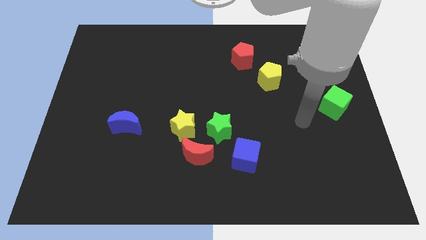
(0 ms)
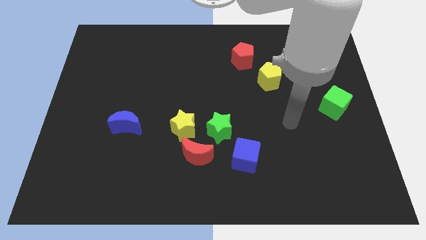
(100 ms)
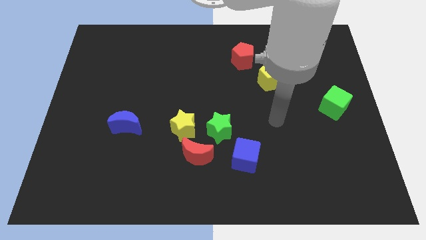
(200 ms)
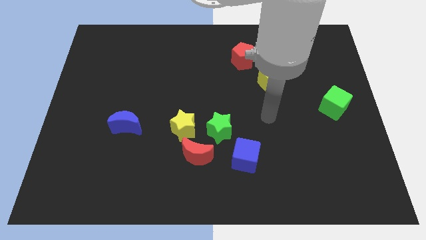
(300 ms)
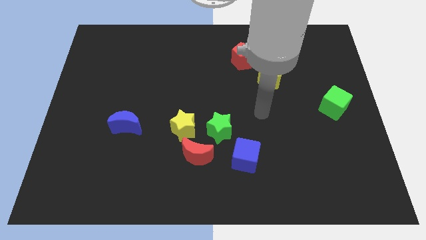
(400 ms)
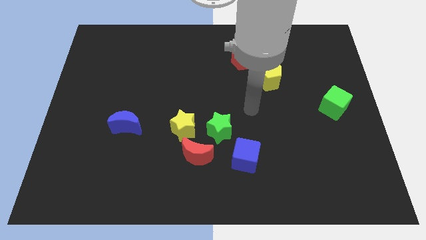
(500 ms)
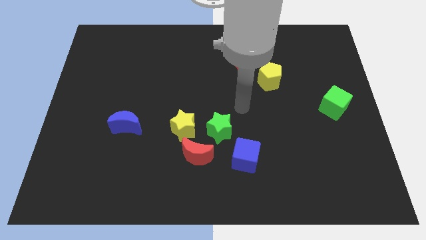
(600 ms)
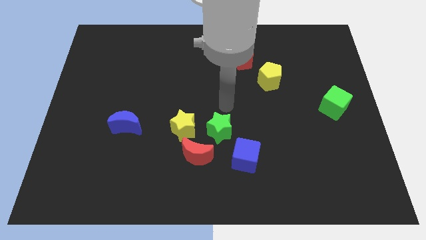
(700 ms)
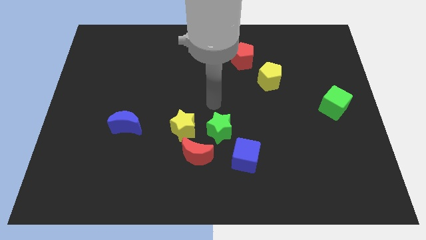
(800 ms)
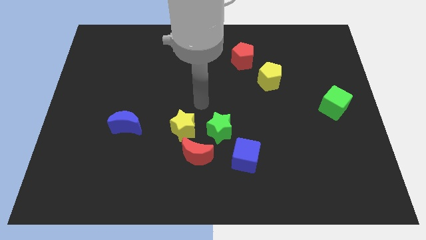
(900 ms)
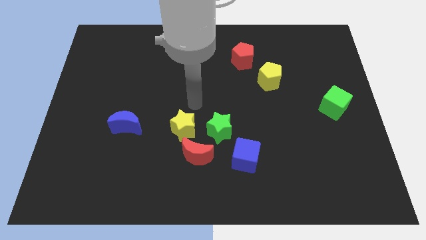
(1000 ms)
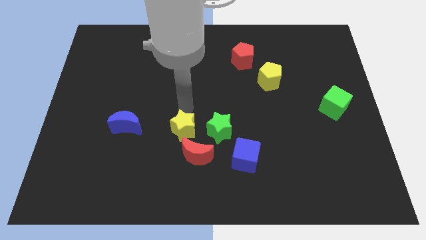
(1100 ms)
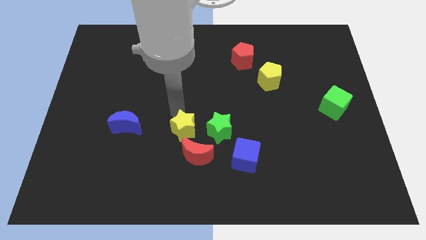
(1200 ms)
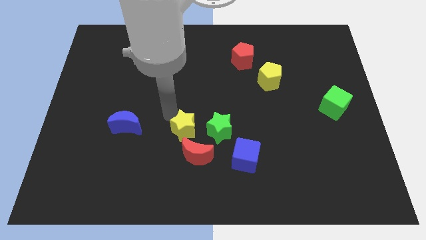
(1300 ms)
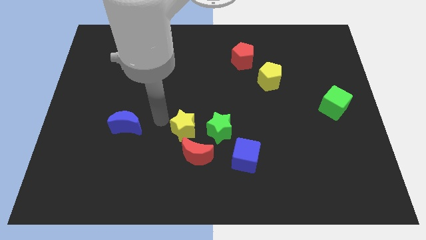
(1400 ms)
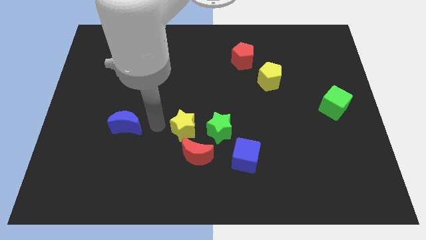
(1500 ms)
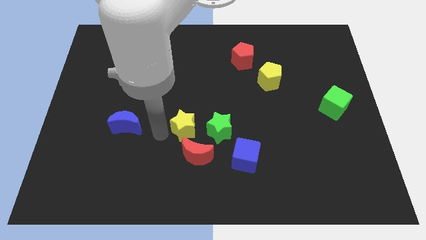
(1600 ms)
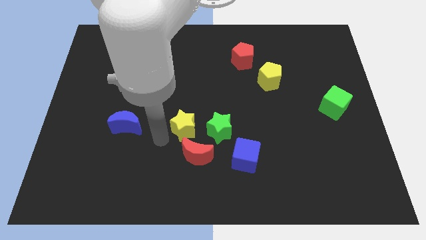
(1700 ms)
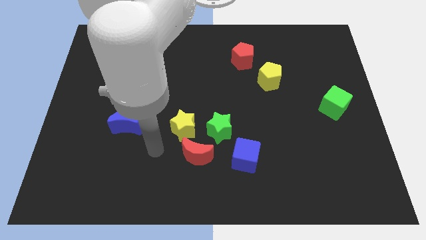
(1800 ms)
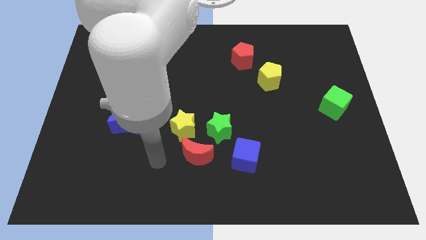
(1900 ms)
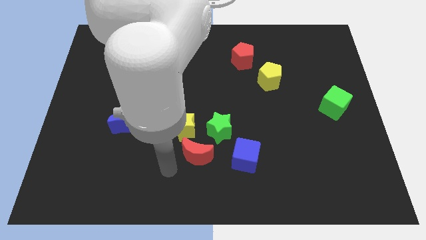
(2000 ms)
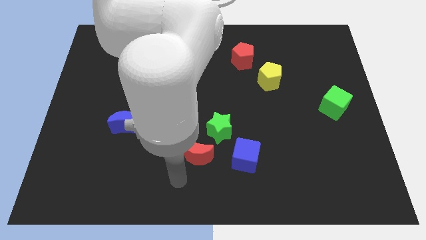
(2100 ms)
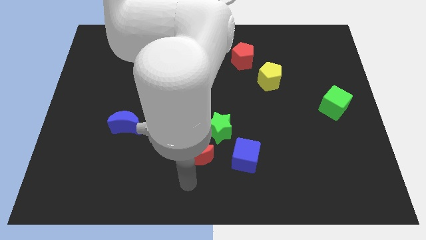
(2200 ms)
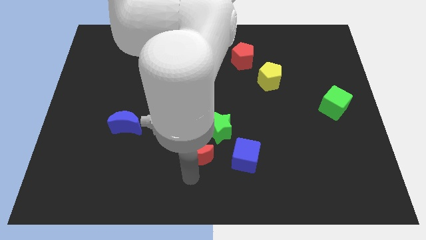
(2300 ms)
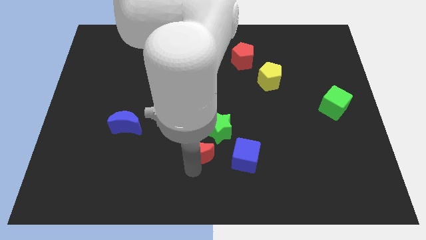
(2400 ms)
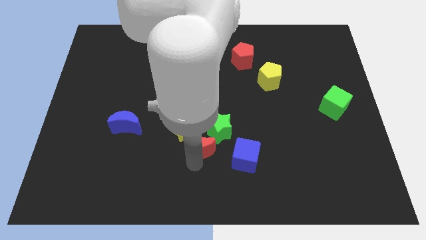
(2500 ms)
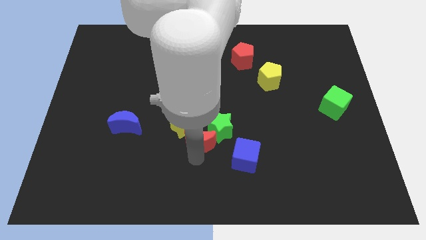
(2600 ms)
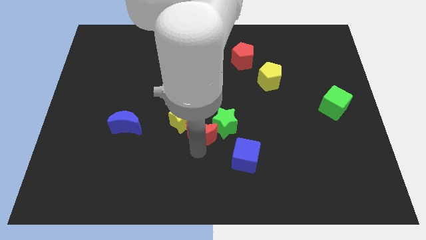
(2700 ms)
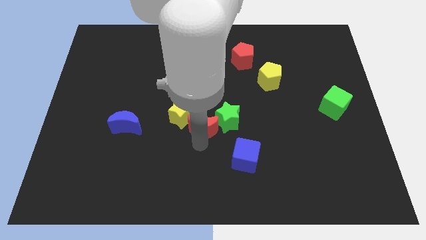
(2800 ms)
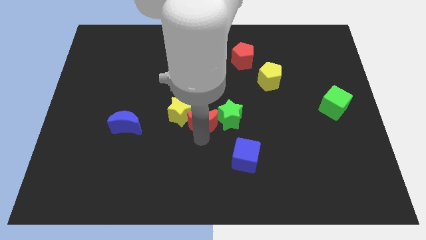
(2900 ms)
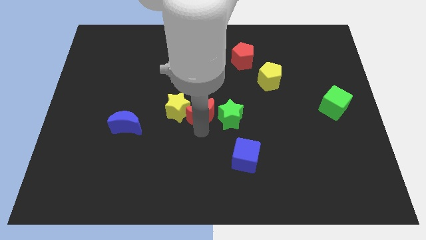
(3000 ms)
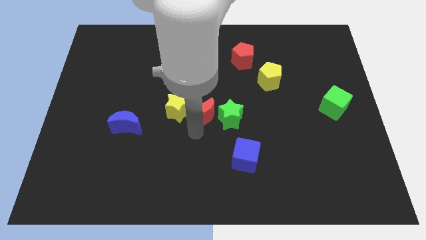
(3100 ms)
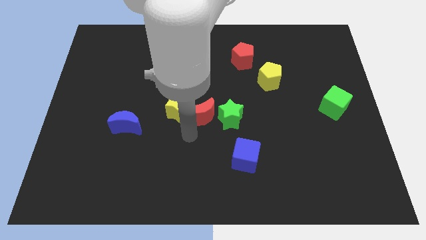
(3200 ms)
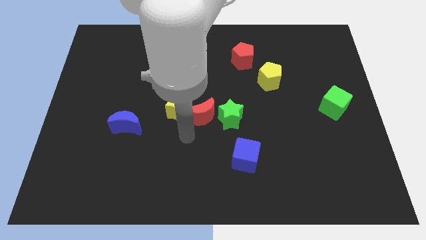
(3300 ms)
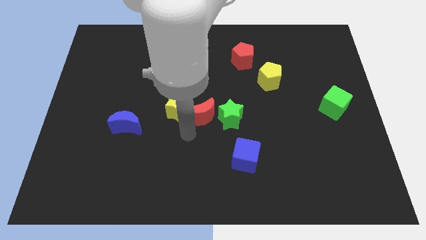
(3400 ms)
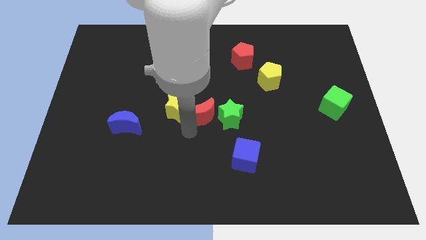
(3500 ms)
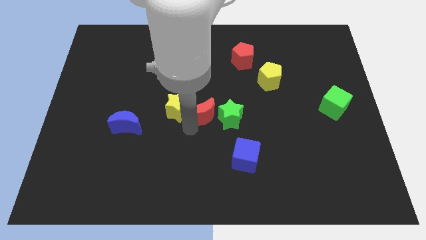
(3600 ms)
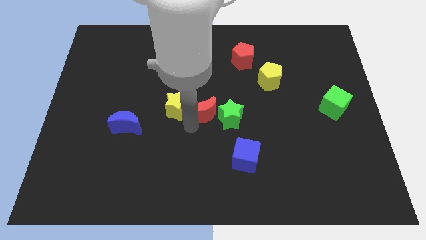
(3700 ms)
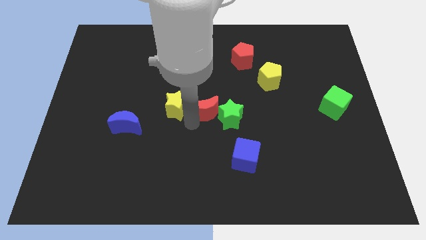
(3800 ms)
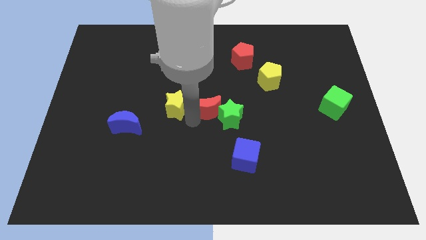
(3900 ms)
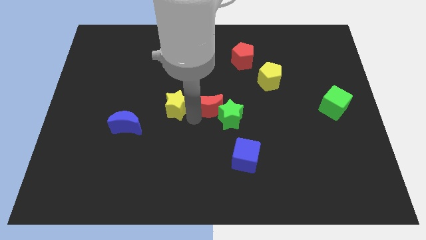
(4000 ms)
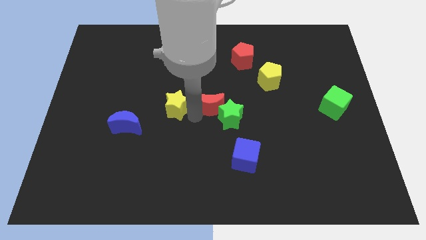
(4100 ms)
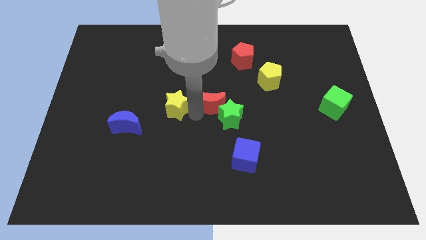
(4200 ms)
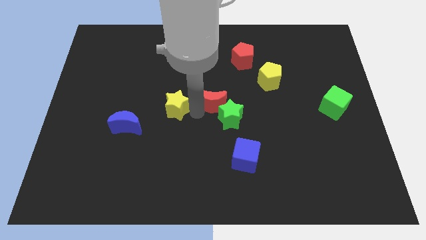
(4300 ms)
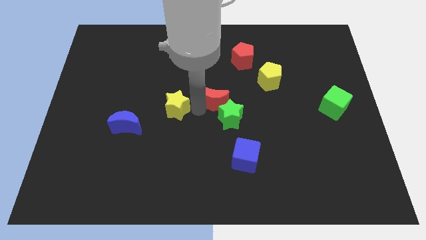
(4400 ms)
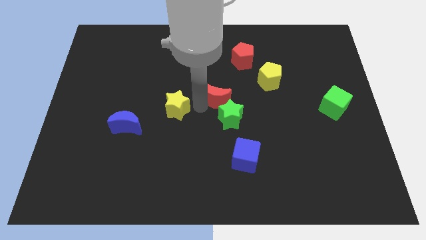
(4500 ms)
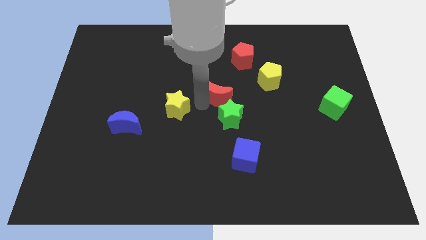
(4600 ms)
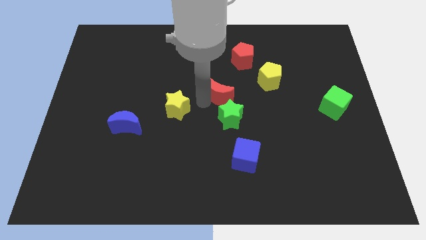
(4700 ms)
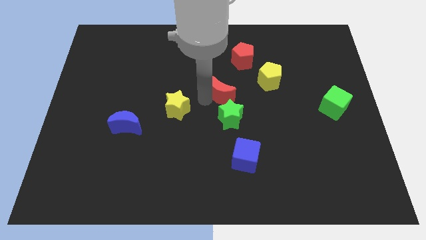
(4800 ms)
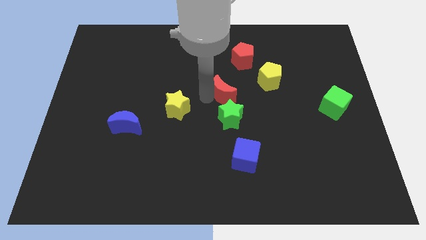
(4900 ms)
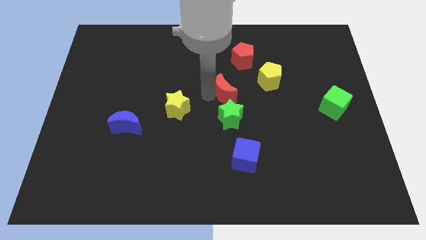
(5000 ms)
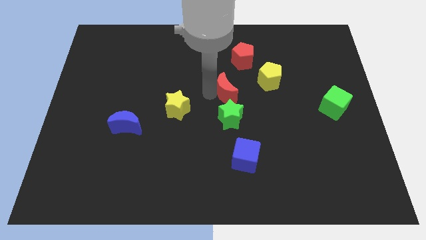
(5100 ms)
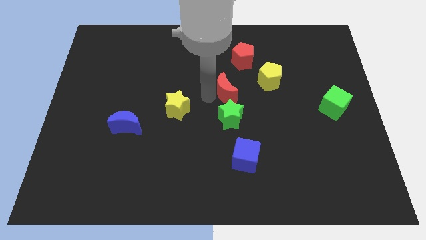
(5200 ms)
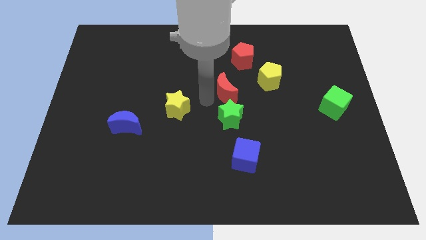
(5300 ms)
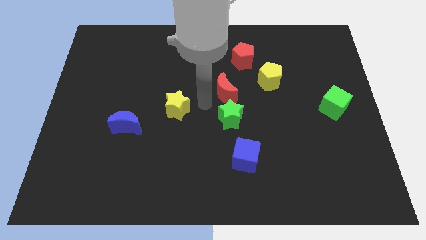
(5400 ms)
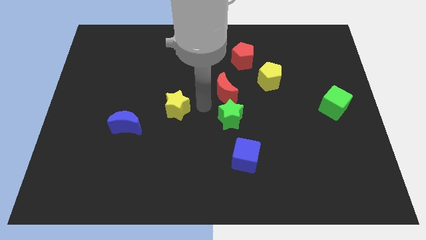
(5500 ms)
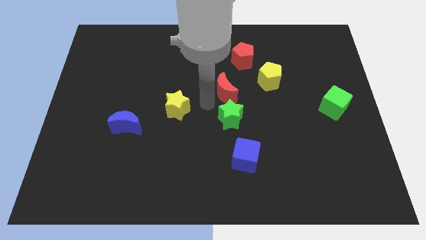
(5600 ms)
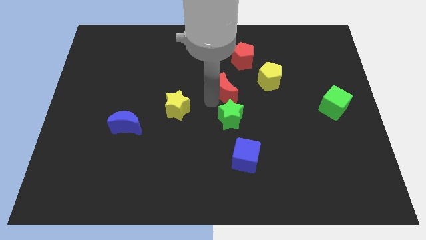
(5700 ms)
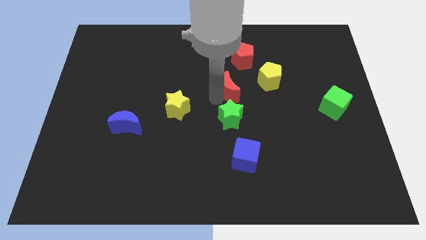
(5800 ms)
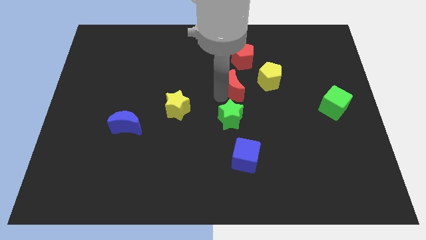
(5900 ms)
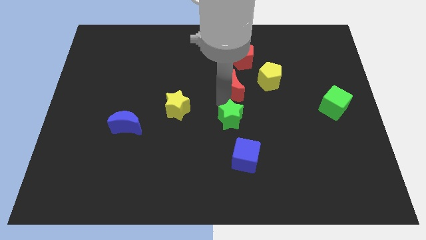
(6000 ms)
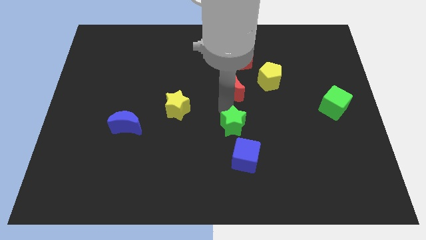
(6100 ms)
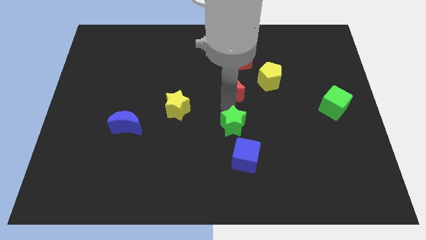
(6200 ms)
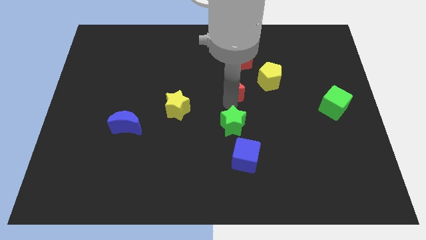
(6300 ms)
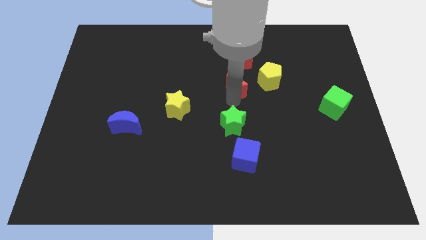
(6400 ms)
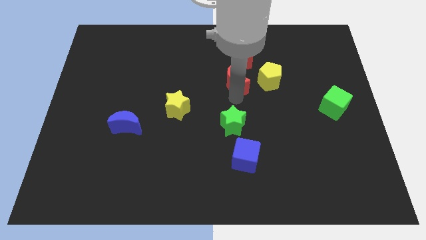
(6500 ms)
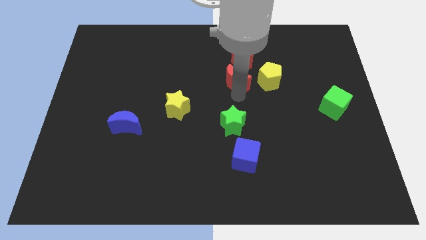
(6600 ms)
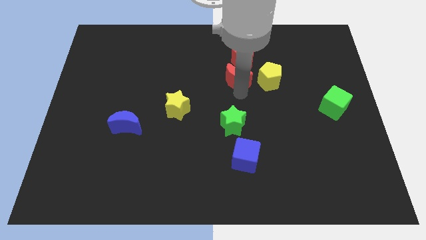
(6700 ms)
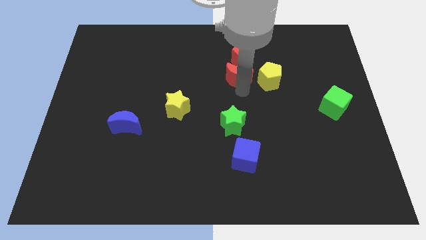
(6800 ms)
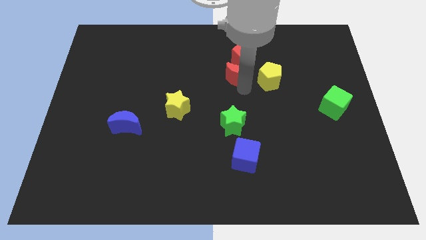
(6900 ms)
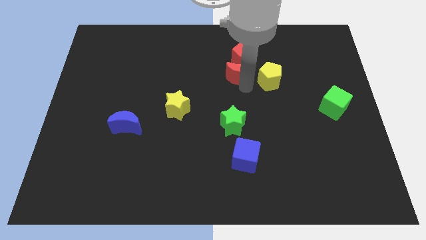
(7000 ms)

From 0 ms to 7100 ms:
push the red moon next to the red pentagon

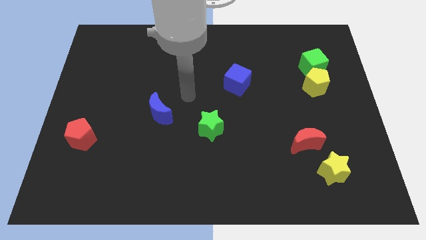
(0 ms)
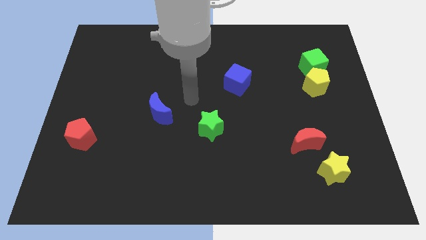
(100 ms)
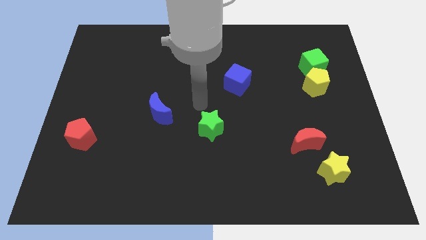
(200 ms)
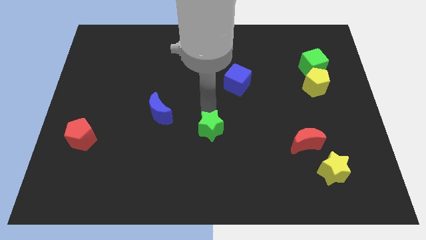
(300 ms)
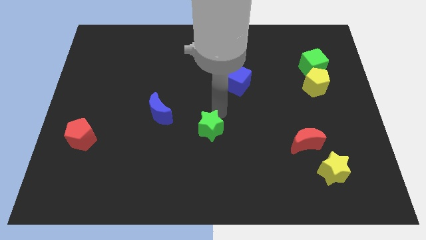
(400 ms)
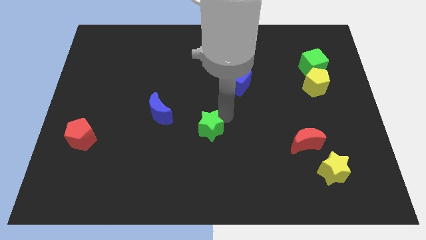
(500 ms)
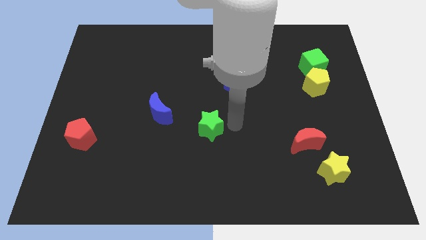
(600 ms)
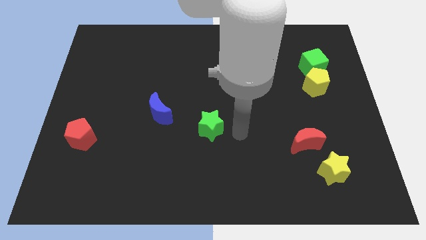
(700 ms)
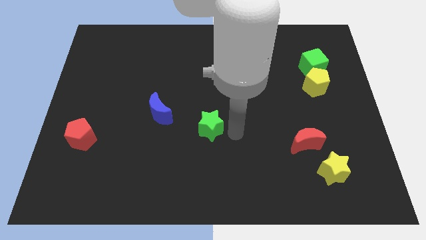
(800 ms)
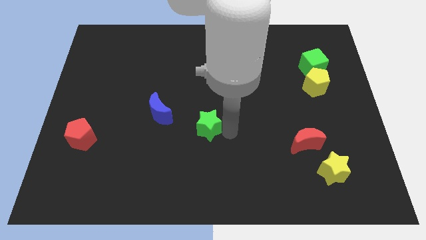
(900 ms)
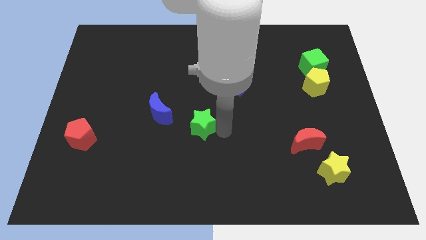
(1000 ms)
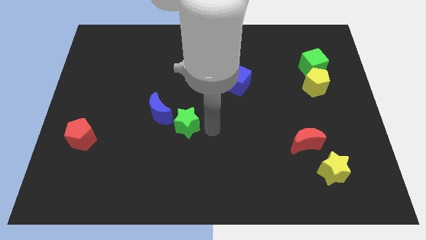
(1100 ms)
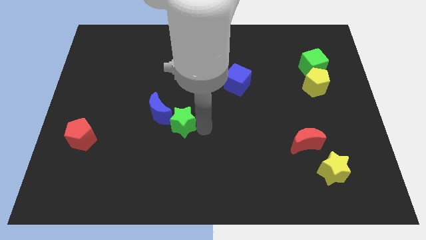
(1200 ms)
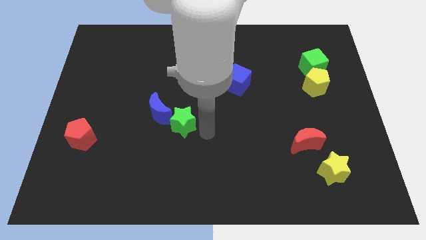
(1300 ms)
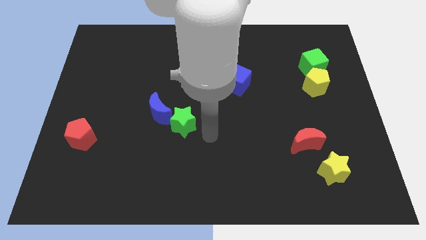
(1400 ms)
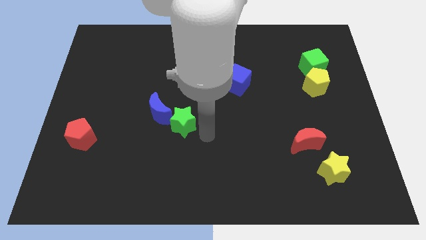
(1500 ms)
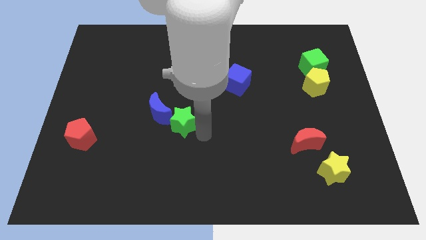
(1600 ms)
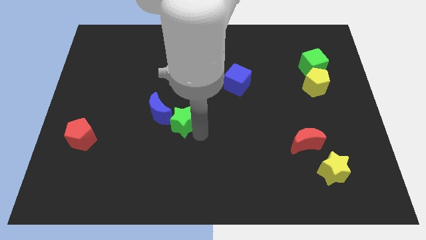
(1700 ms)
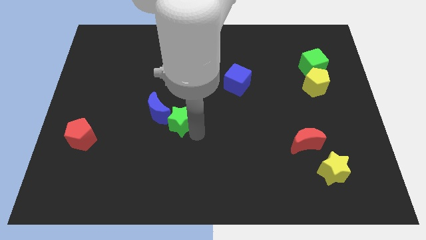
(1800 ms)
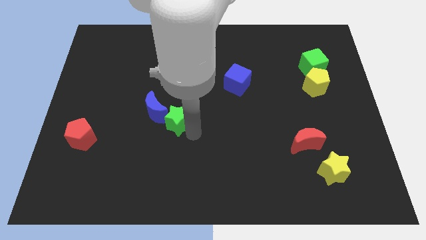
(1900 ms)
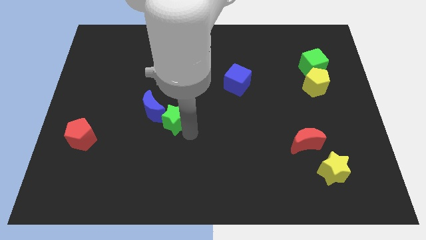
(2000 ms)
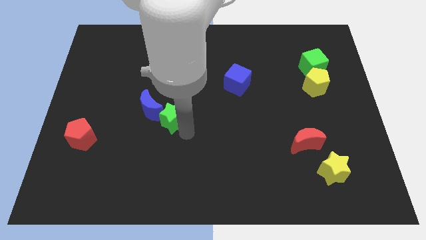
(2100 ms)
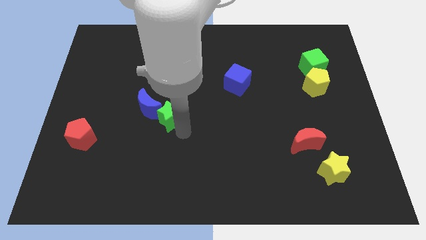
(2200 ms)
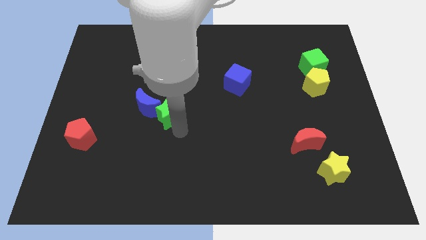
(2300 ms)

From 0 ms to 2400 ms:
move the green star next to the blue moon
